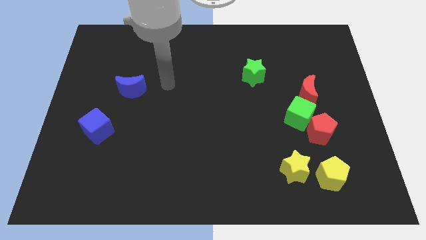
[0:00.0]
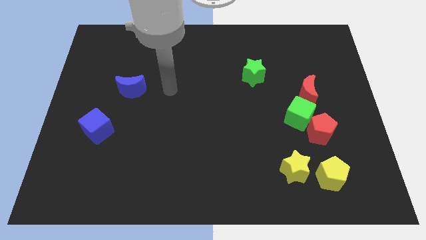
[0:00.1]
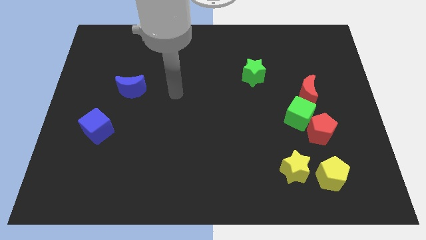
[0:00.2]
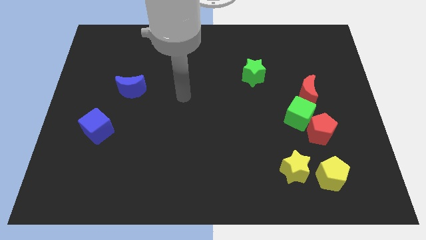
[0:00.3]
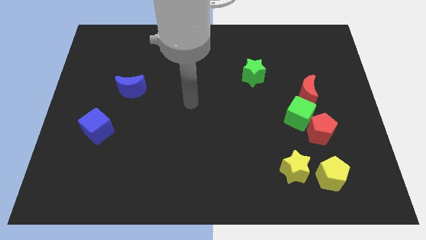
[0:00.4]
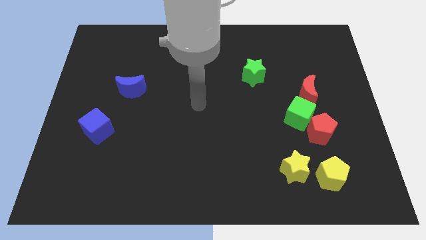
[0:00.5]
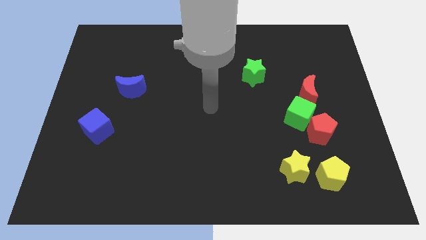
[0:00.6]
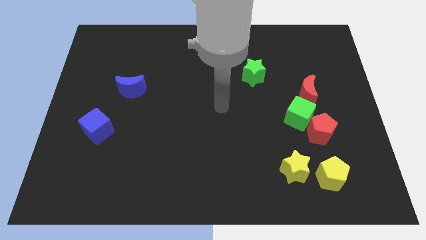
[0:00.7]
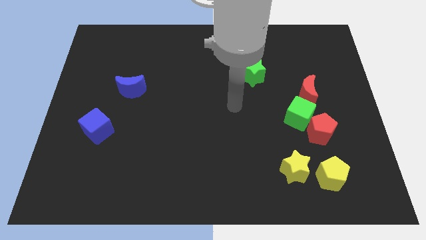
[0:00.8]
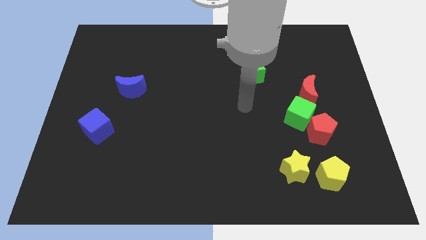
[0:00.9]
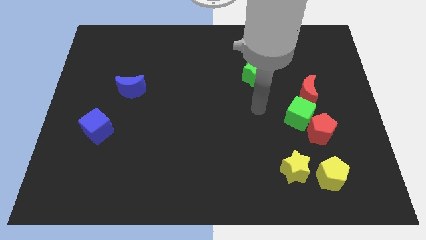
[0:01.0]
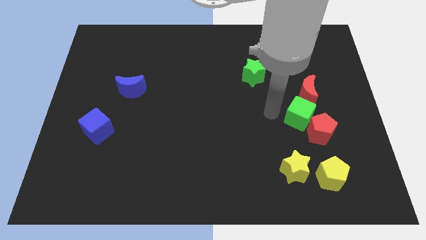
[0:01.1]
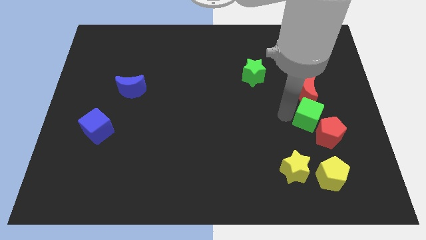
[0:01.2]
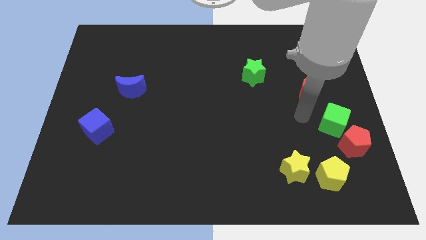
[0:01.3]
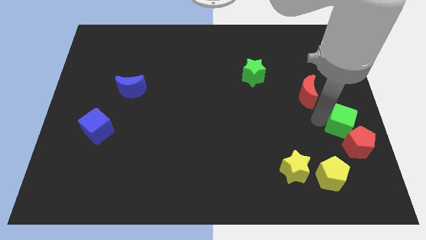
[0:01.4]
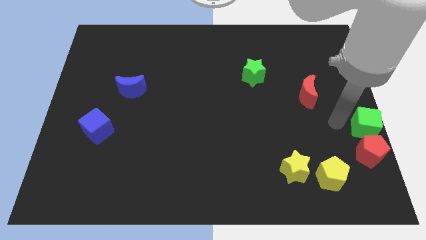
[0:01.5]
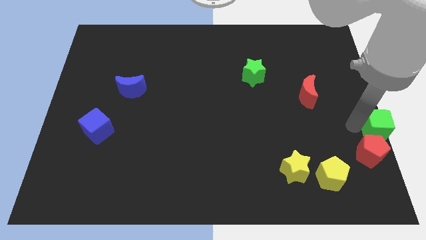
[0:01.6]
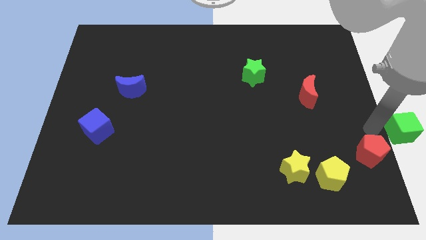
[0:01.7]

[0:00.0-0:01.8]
pull the red pentagon apart from the green cube

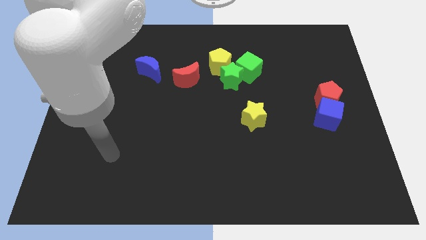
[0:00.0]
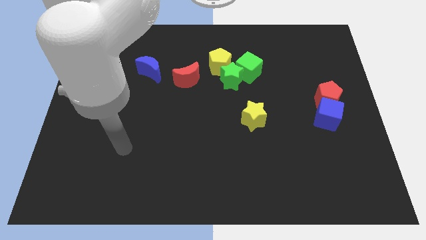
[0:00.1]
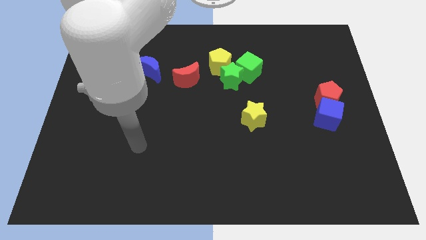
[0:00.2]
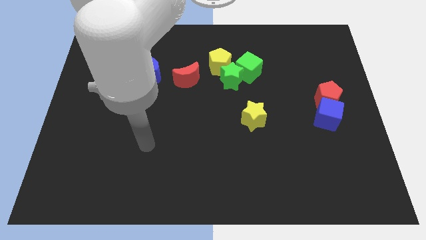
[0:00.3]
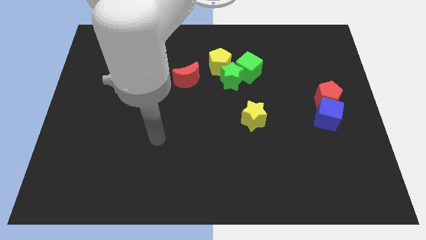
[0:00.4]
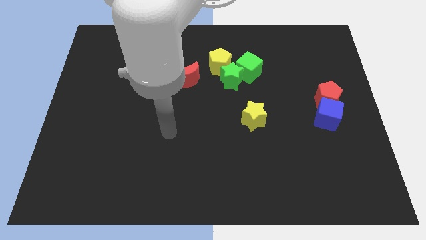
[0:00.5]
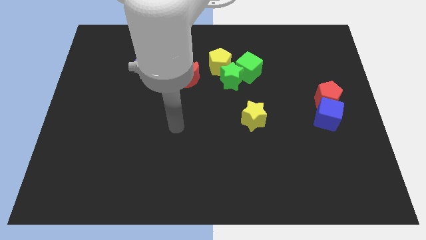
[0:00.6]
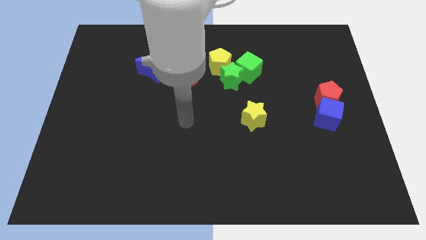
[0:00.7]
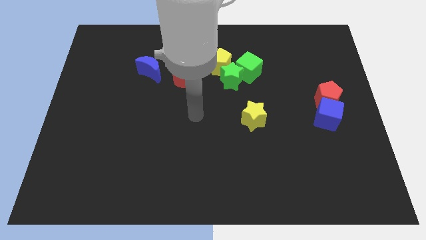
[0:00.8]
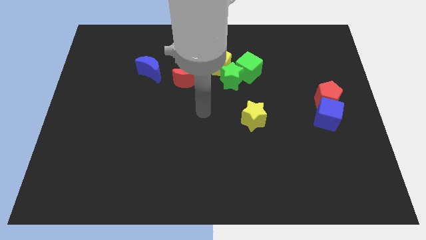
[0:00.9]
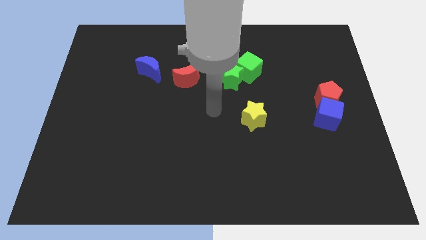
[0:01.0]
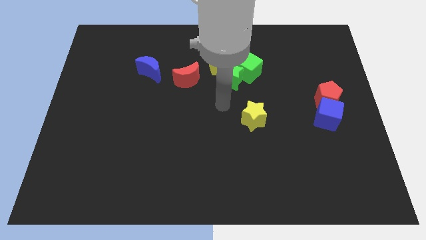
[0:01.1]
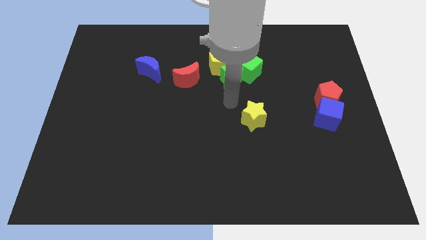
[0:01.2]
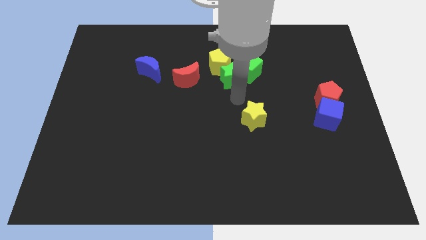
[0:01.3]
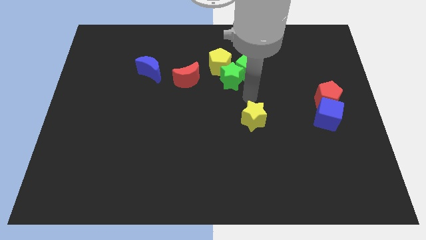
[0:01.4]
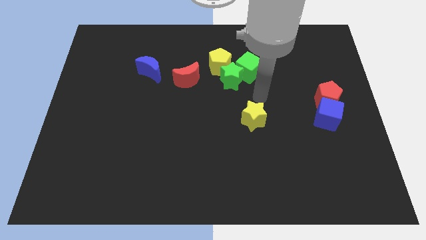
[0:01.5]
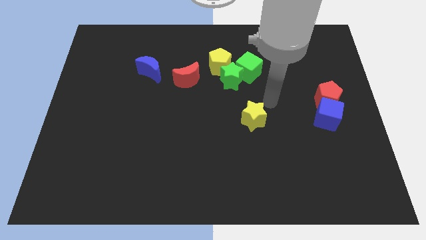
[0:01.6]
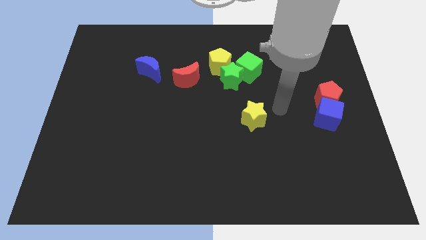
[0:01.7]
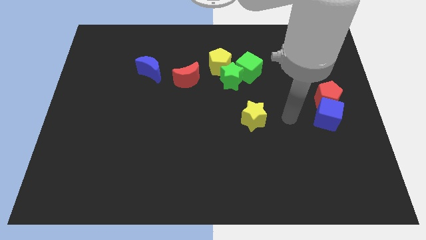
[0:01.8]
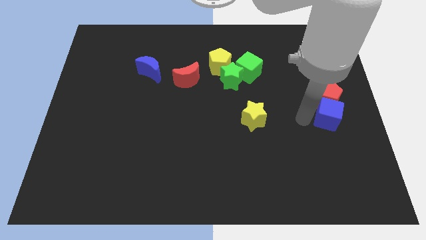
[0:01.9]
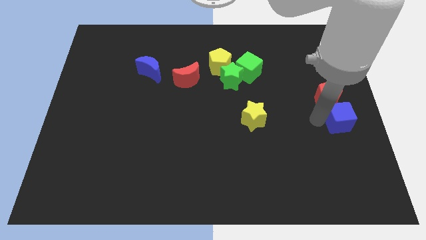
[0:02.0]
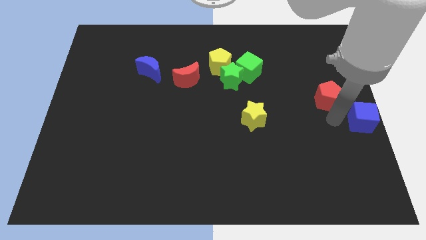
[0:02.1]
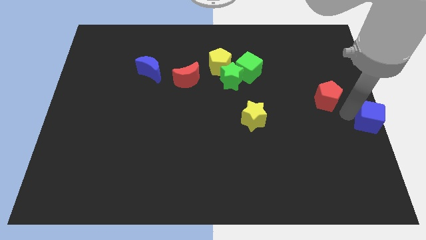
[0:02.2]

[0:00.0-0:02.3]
move the red pentagon away from the blue cube

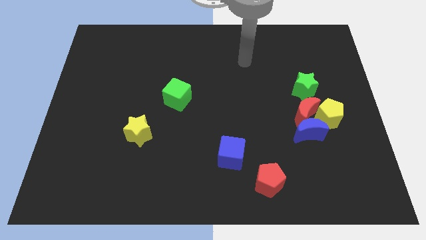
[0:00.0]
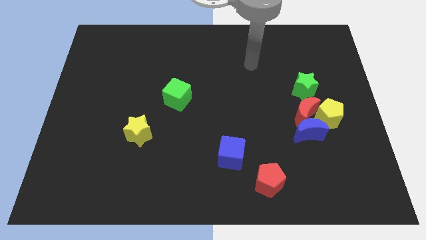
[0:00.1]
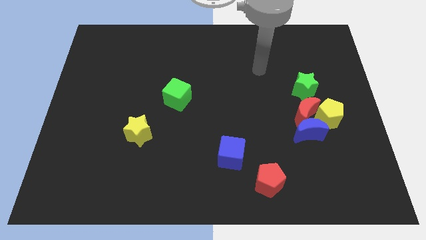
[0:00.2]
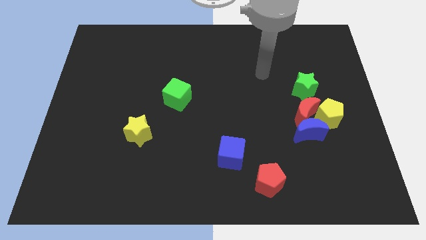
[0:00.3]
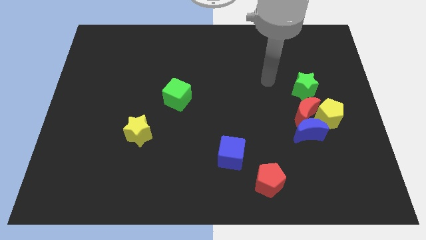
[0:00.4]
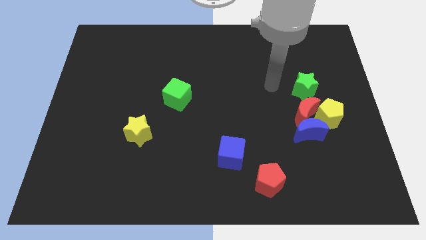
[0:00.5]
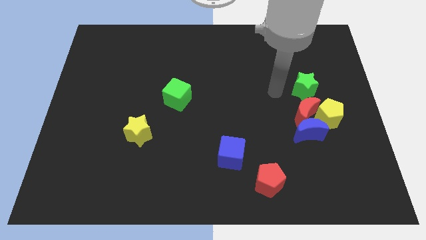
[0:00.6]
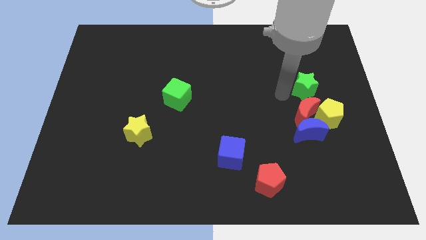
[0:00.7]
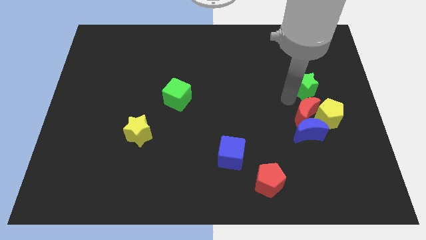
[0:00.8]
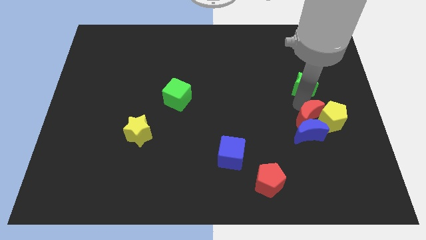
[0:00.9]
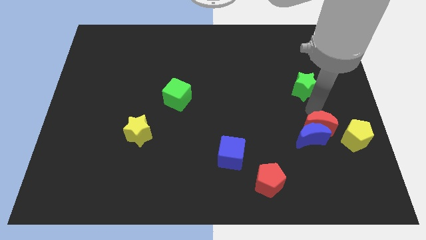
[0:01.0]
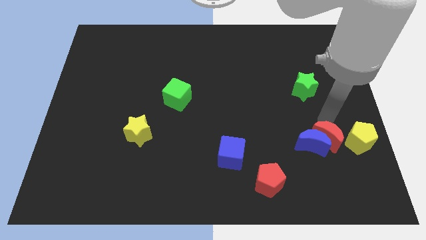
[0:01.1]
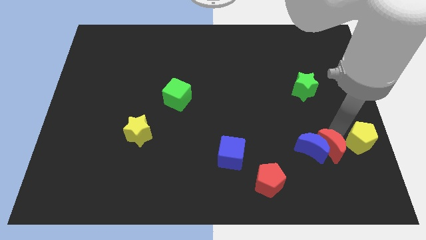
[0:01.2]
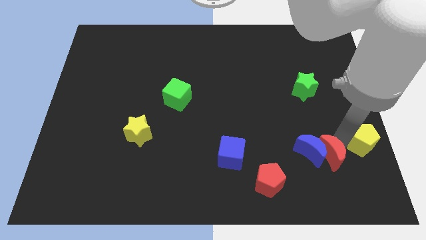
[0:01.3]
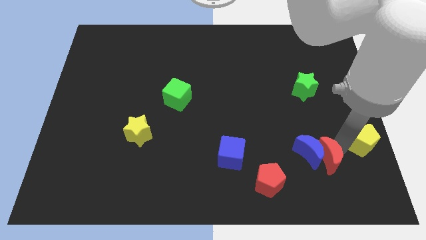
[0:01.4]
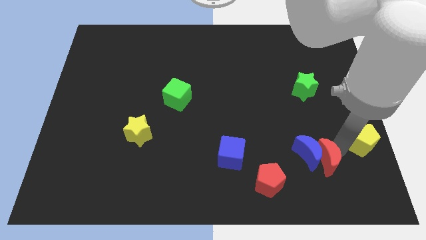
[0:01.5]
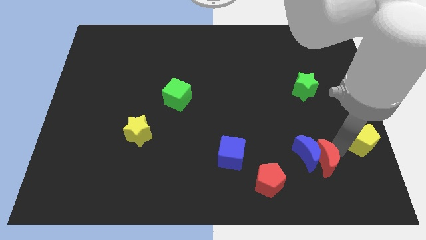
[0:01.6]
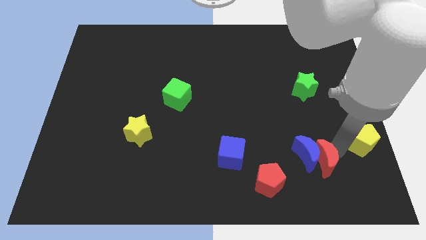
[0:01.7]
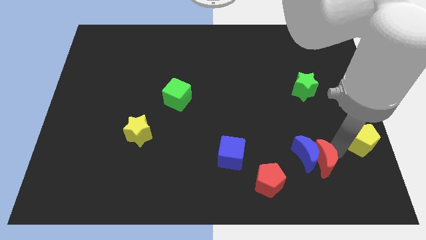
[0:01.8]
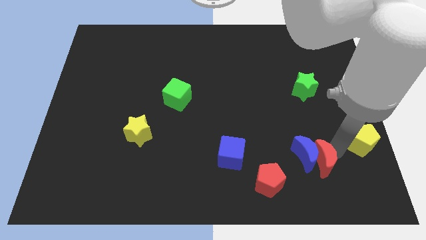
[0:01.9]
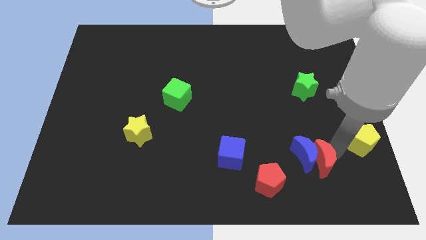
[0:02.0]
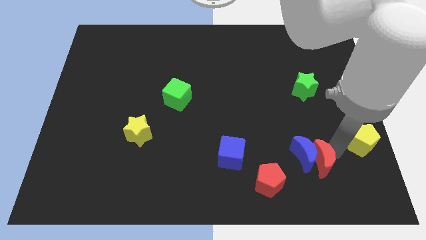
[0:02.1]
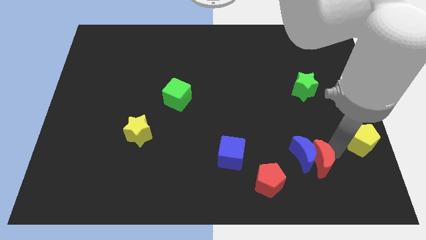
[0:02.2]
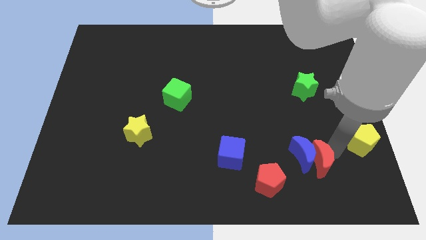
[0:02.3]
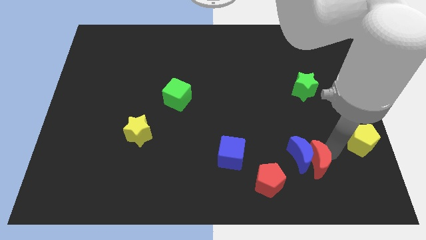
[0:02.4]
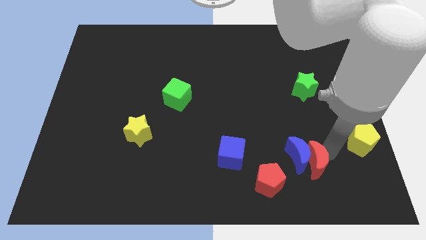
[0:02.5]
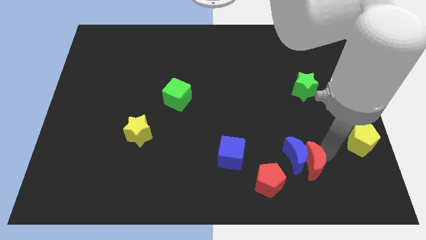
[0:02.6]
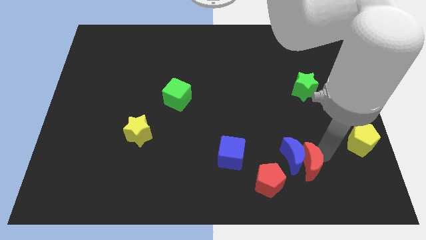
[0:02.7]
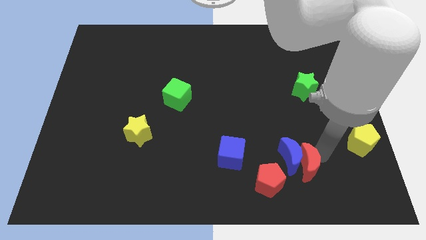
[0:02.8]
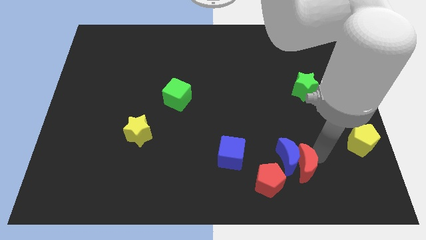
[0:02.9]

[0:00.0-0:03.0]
separate the blue moon from the red moon and yellow pentagon

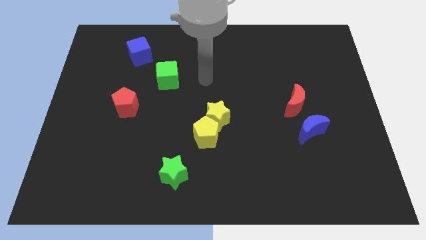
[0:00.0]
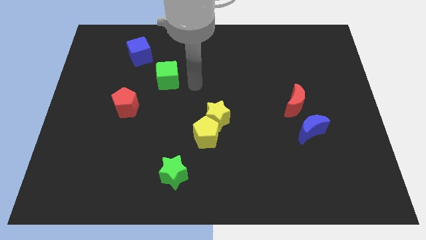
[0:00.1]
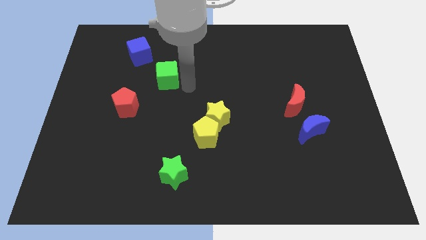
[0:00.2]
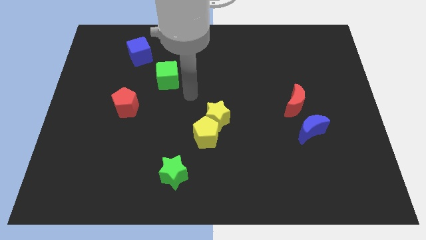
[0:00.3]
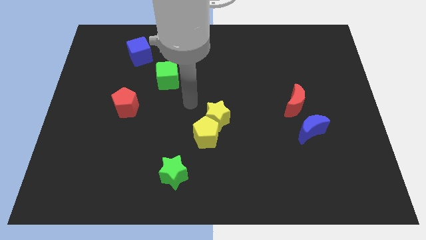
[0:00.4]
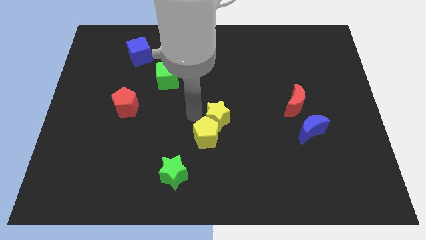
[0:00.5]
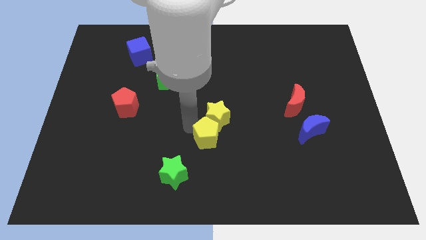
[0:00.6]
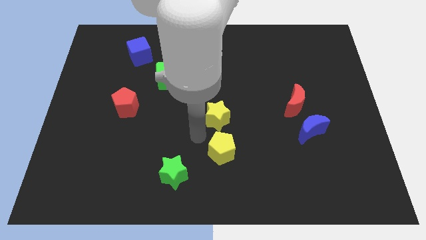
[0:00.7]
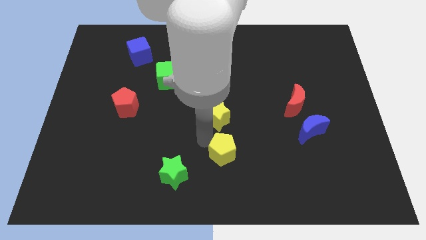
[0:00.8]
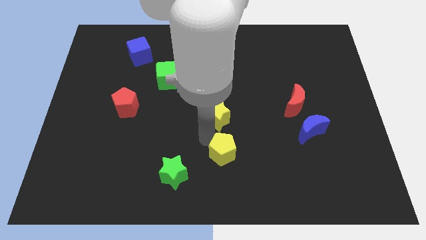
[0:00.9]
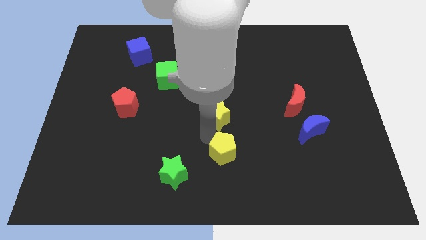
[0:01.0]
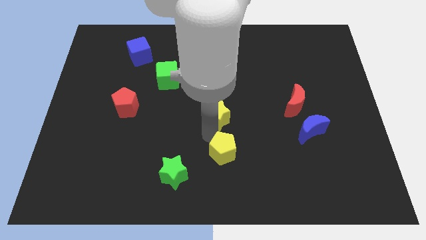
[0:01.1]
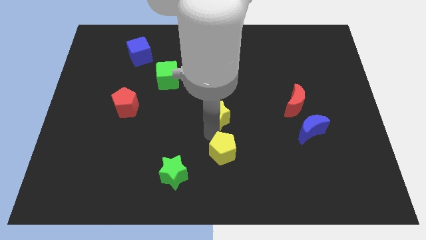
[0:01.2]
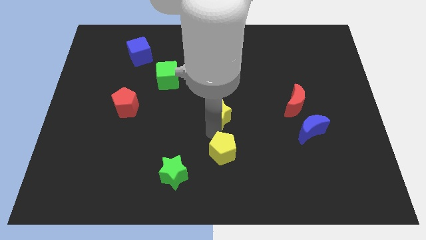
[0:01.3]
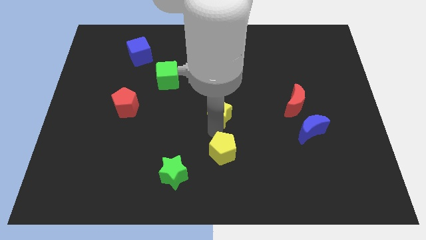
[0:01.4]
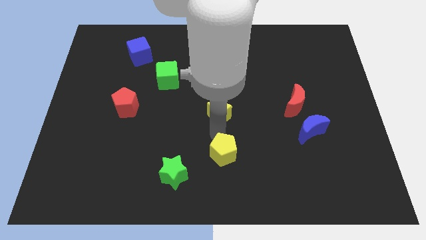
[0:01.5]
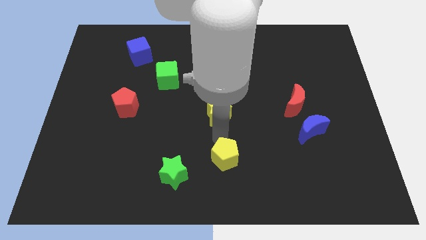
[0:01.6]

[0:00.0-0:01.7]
separate the yellow star from the yellow pentagon

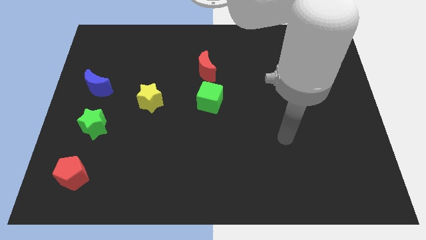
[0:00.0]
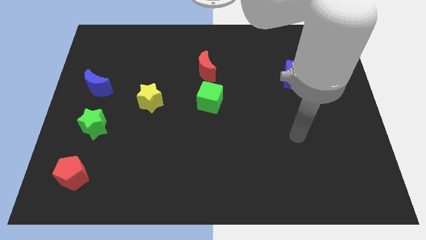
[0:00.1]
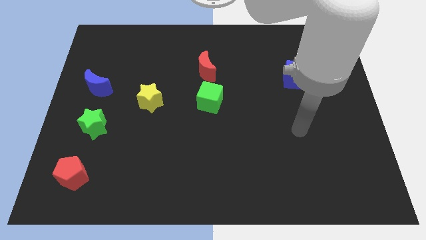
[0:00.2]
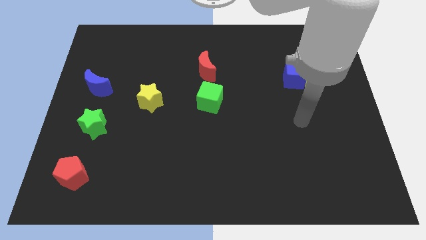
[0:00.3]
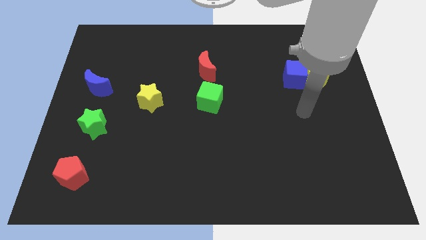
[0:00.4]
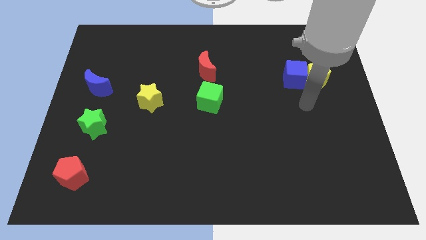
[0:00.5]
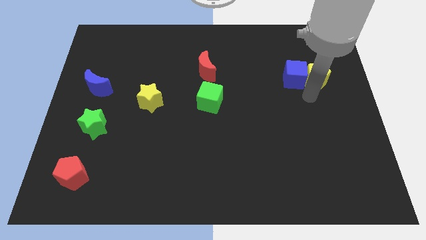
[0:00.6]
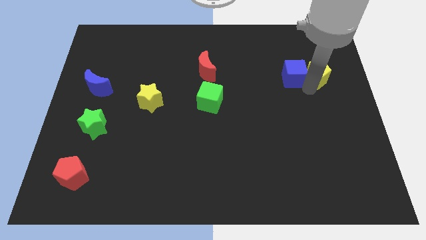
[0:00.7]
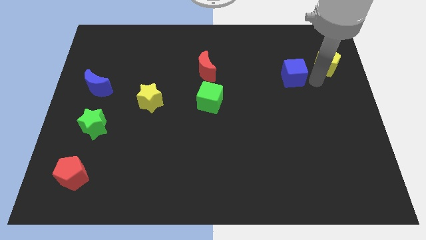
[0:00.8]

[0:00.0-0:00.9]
separate the blue cube from the yellow pentagon
